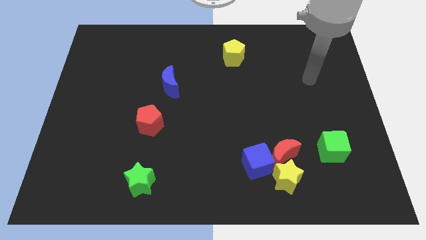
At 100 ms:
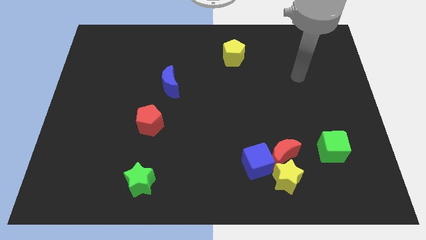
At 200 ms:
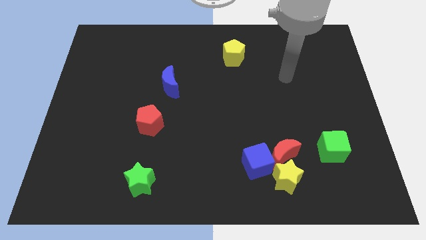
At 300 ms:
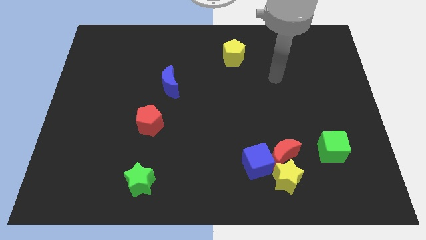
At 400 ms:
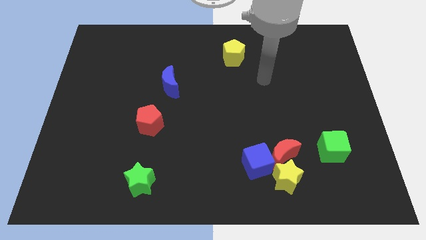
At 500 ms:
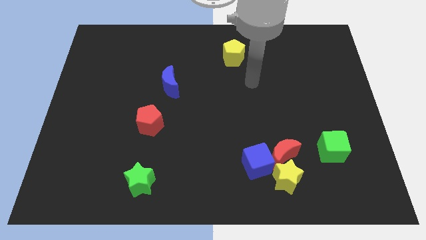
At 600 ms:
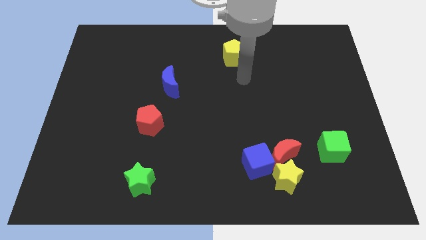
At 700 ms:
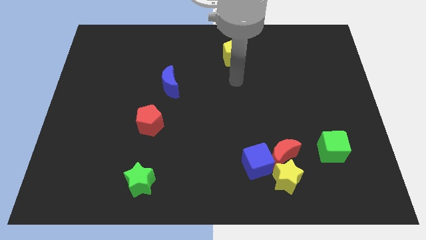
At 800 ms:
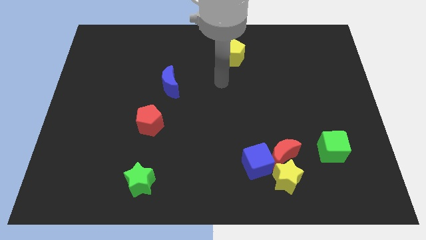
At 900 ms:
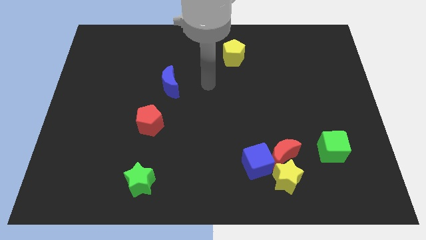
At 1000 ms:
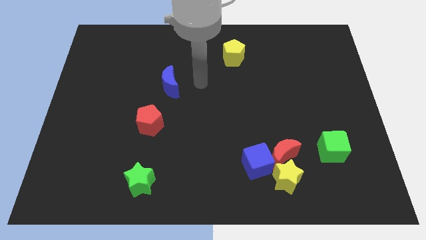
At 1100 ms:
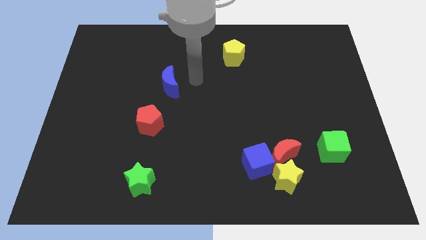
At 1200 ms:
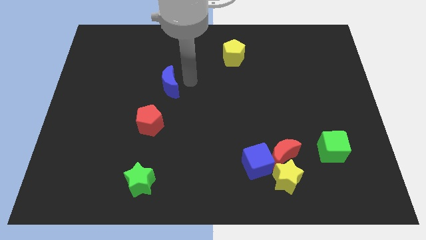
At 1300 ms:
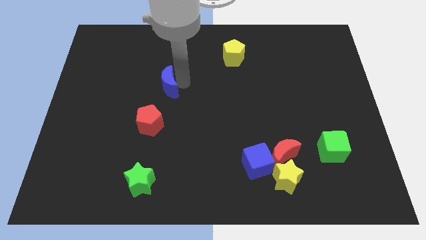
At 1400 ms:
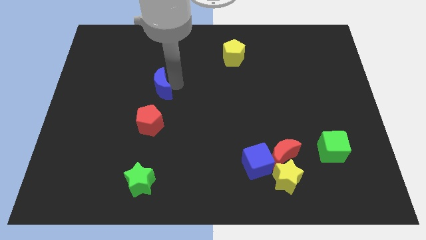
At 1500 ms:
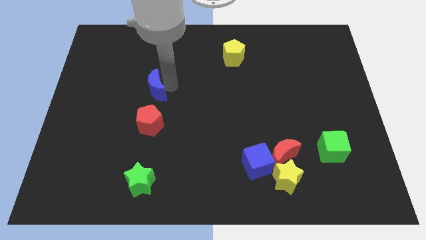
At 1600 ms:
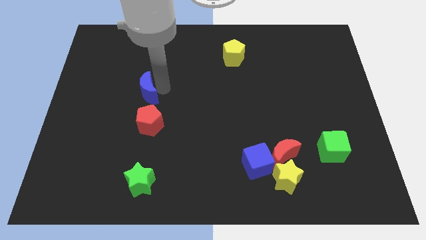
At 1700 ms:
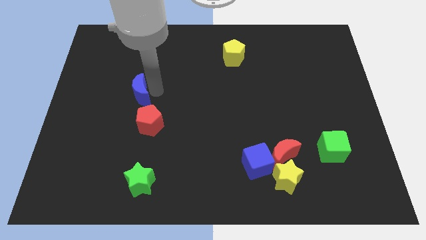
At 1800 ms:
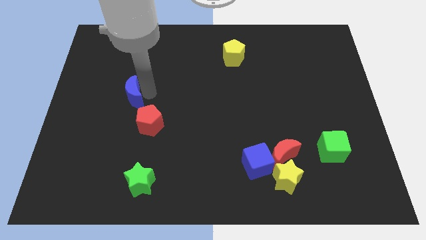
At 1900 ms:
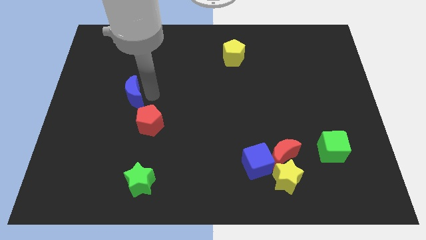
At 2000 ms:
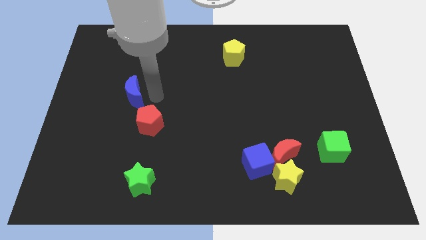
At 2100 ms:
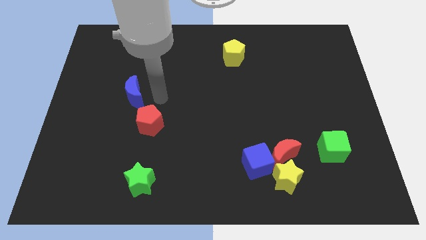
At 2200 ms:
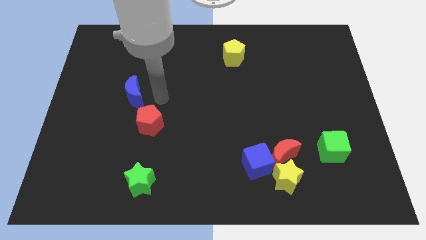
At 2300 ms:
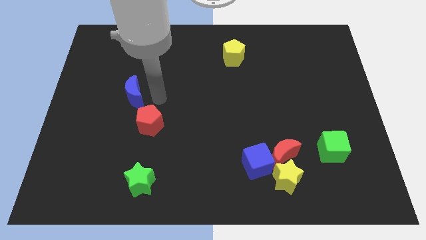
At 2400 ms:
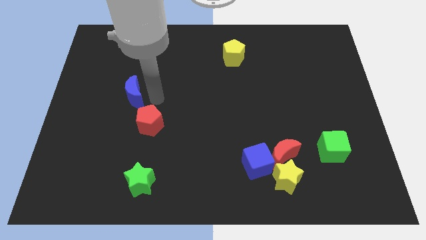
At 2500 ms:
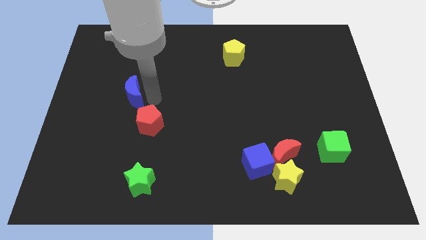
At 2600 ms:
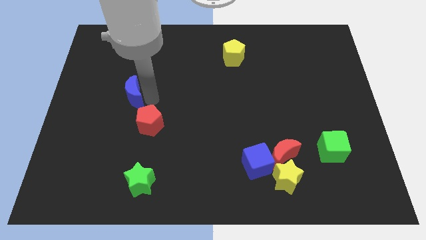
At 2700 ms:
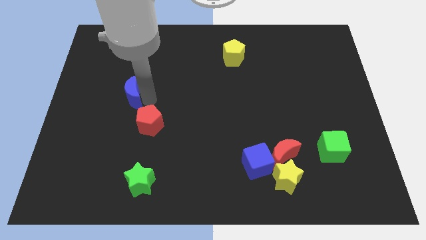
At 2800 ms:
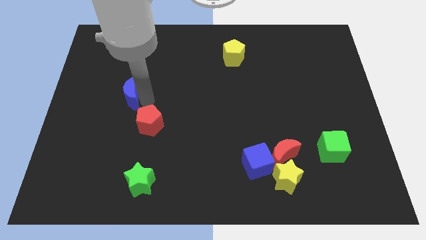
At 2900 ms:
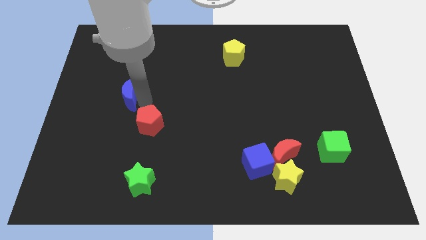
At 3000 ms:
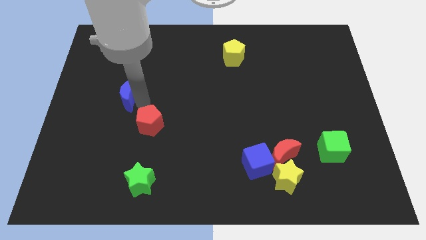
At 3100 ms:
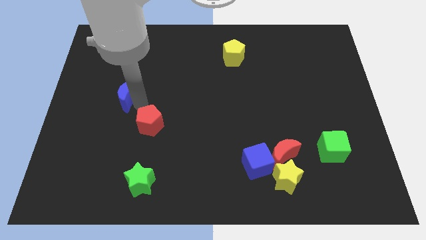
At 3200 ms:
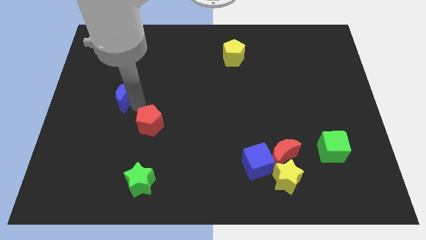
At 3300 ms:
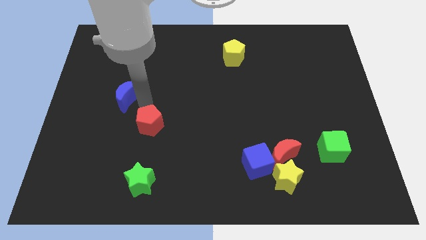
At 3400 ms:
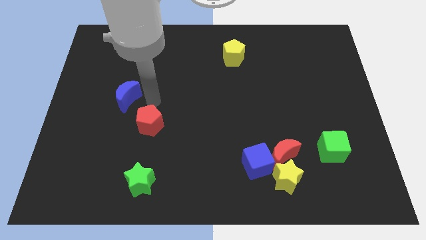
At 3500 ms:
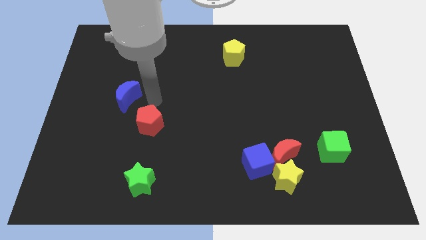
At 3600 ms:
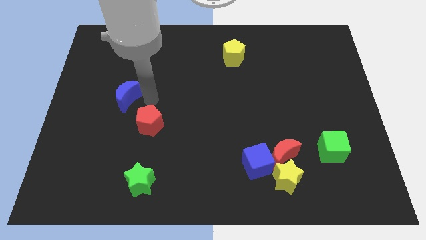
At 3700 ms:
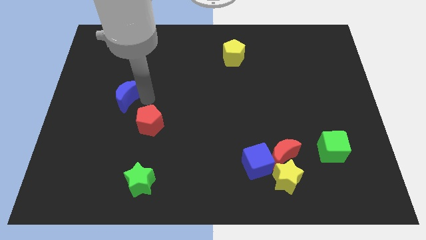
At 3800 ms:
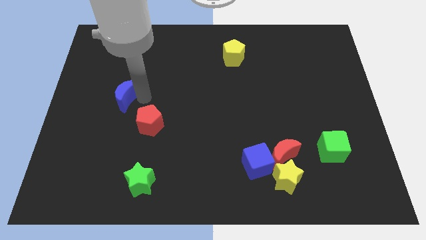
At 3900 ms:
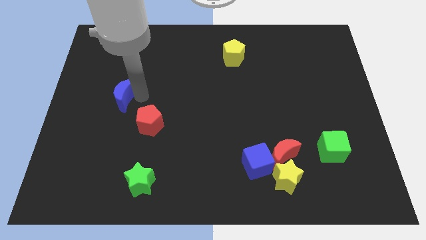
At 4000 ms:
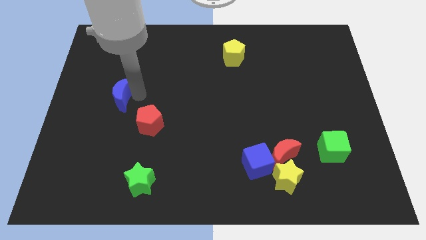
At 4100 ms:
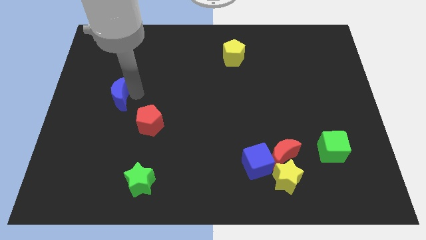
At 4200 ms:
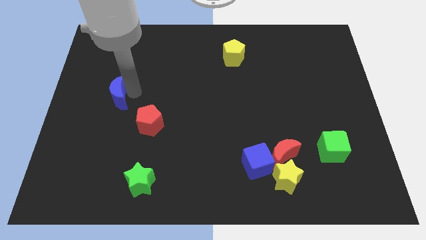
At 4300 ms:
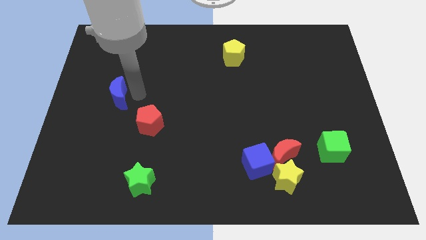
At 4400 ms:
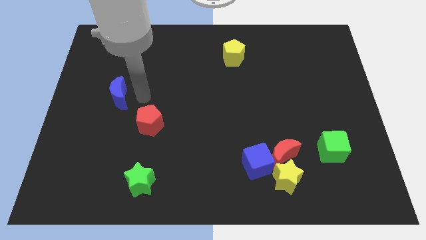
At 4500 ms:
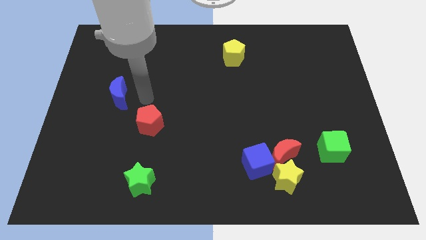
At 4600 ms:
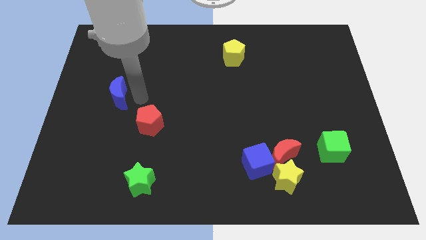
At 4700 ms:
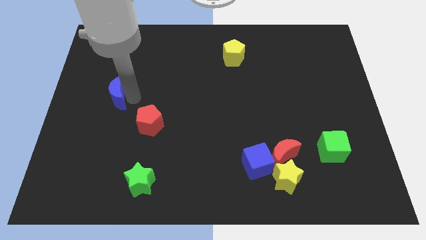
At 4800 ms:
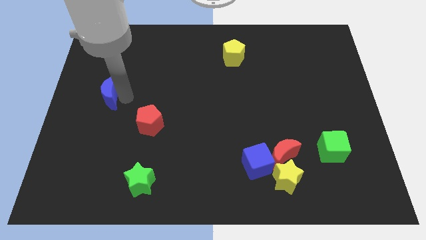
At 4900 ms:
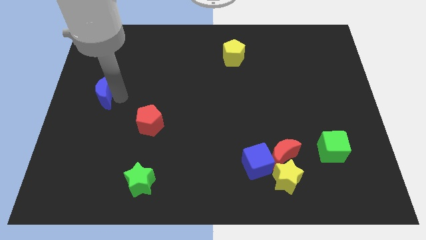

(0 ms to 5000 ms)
put the blue moon to the left side

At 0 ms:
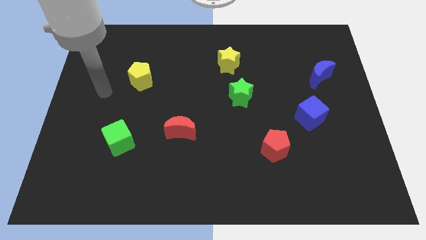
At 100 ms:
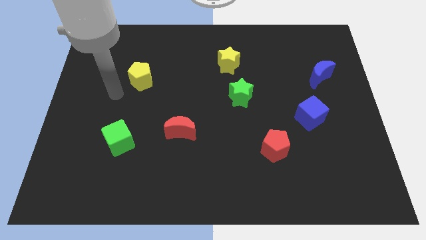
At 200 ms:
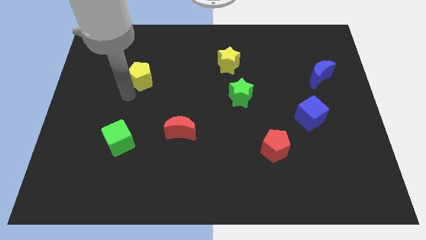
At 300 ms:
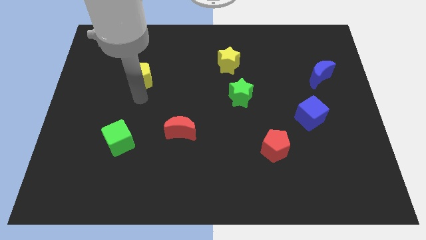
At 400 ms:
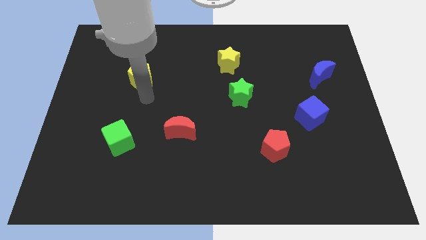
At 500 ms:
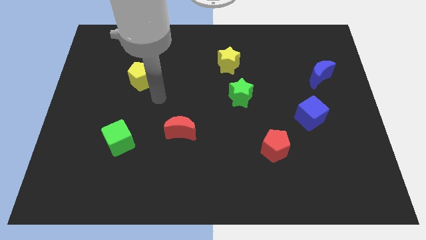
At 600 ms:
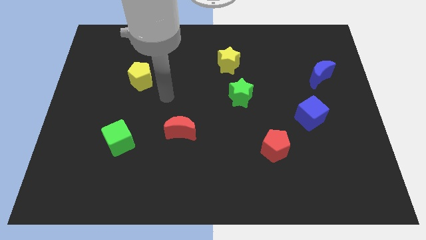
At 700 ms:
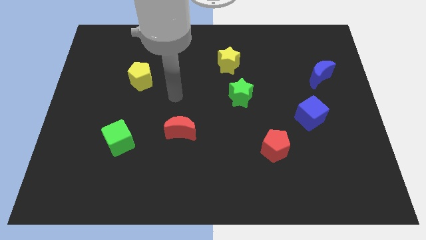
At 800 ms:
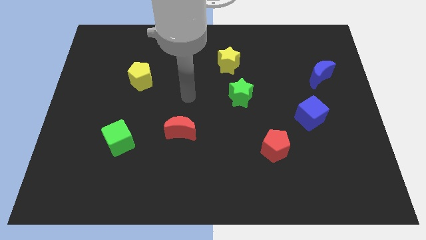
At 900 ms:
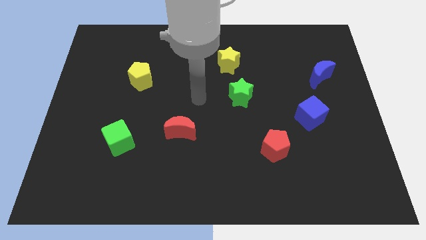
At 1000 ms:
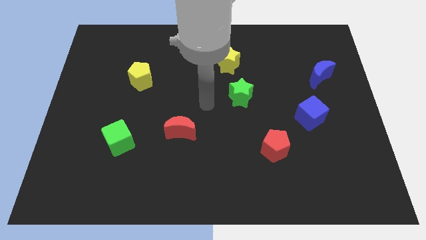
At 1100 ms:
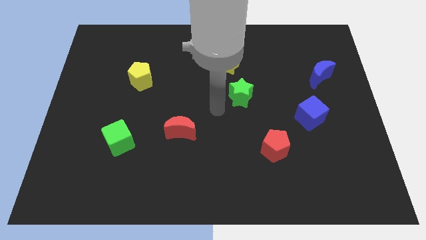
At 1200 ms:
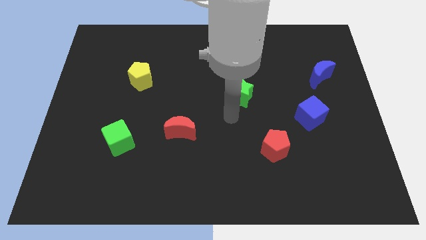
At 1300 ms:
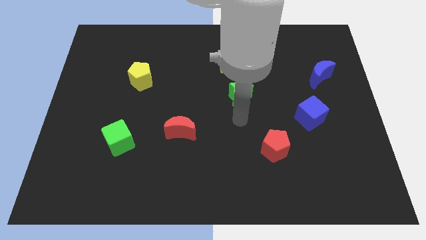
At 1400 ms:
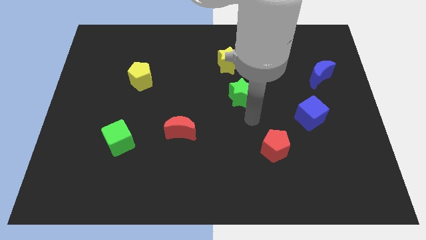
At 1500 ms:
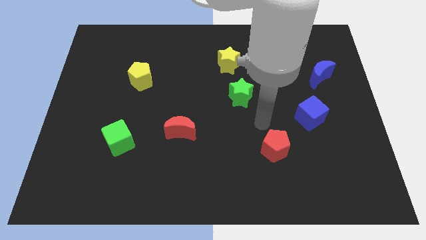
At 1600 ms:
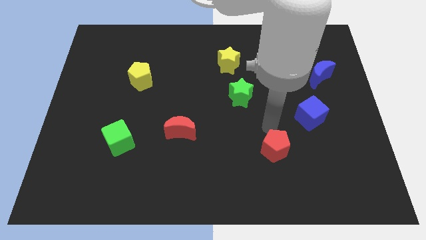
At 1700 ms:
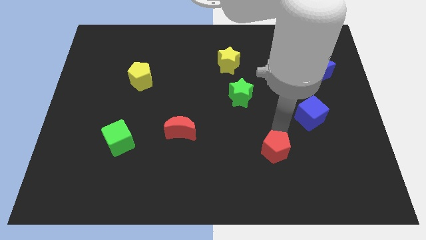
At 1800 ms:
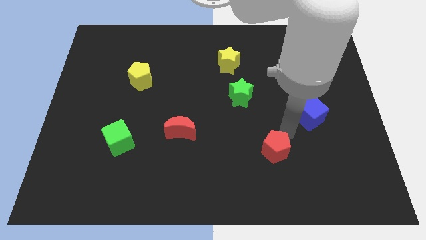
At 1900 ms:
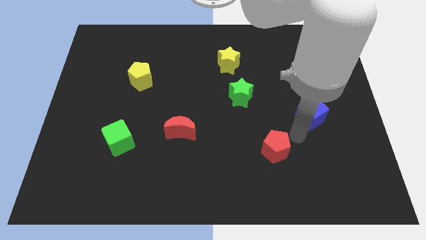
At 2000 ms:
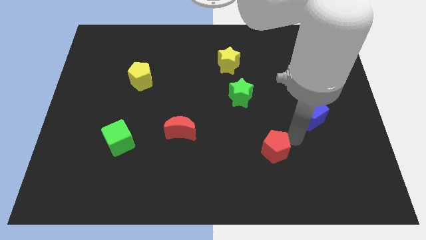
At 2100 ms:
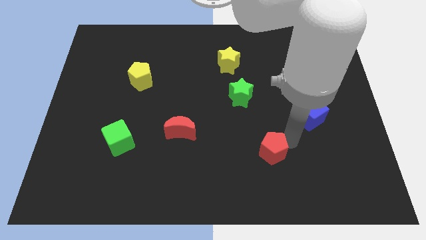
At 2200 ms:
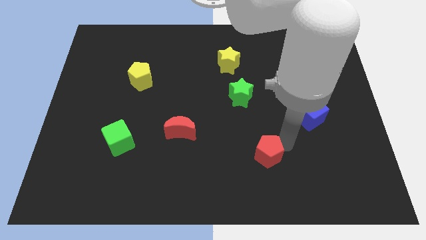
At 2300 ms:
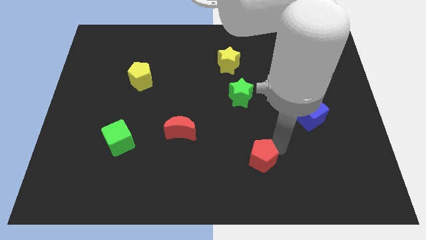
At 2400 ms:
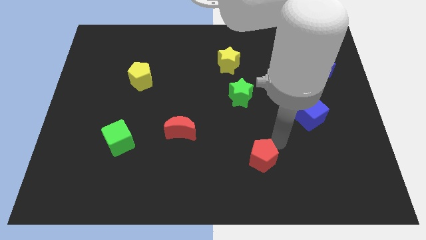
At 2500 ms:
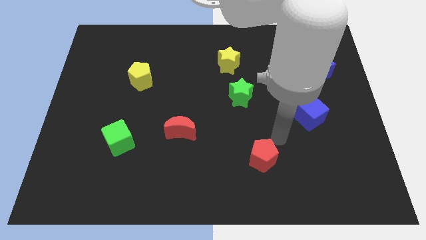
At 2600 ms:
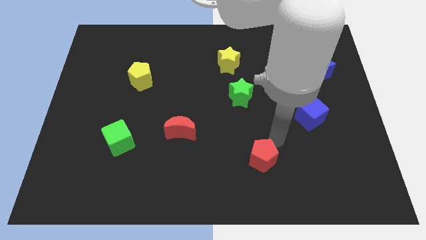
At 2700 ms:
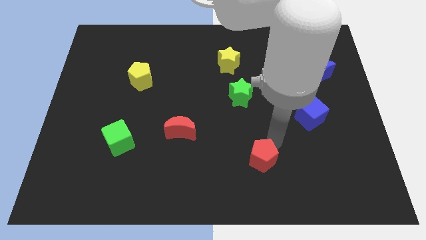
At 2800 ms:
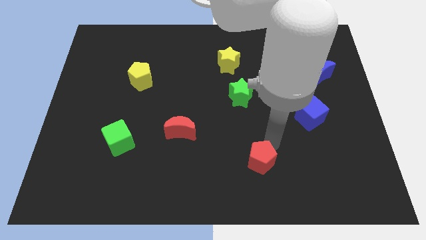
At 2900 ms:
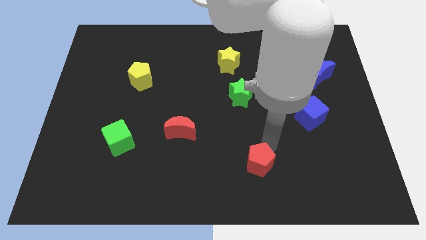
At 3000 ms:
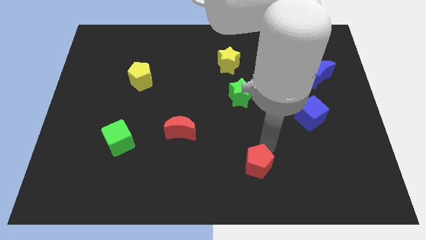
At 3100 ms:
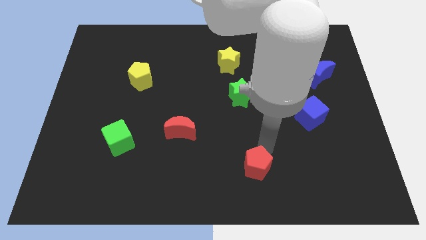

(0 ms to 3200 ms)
slide the red pentagon to the bottom
